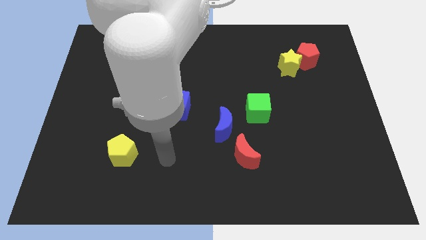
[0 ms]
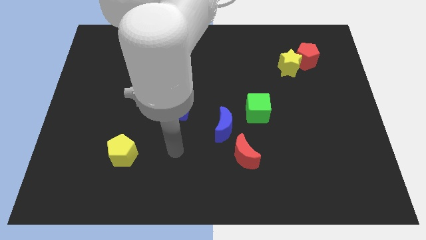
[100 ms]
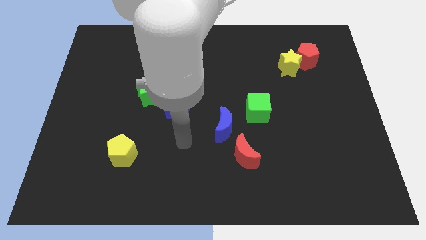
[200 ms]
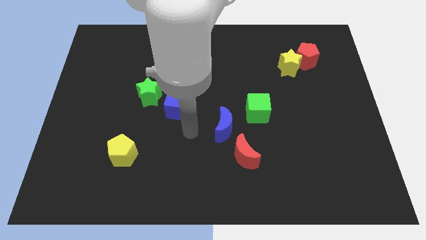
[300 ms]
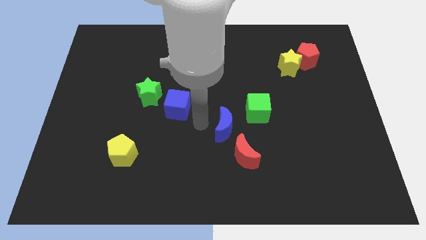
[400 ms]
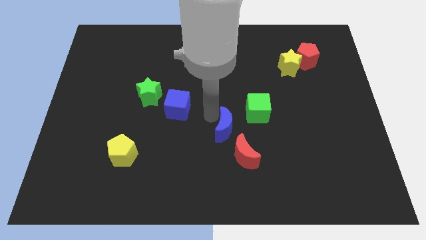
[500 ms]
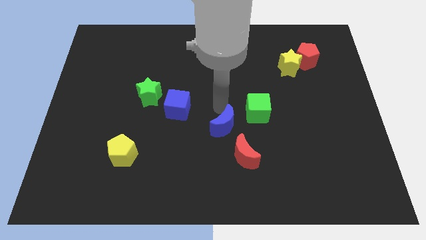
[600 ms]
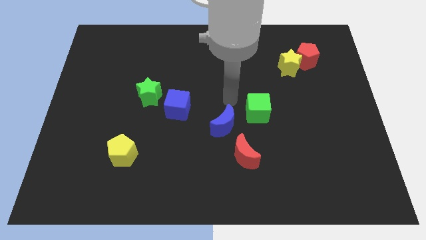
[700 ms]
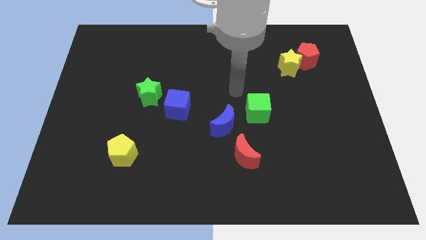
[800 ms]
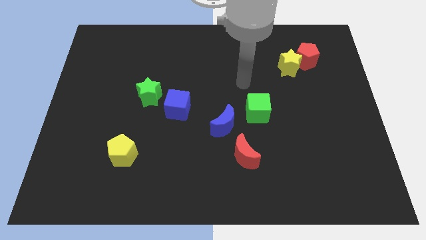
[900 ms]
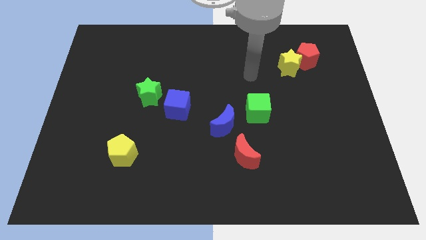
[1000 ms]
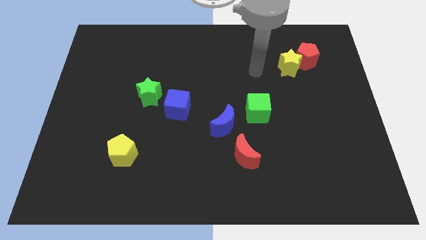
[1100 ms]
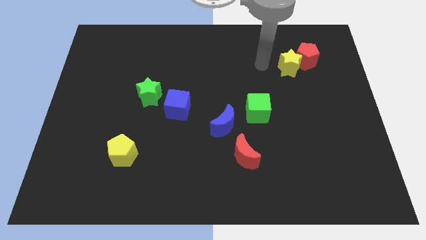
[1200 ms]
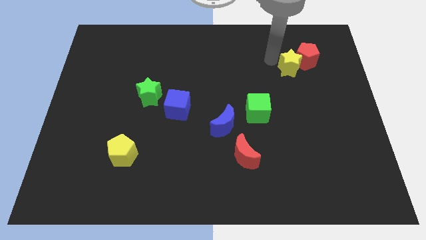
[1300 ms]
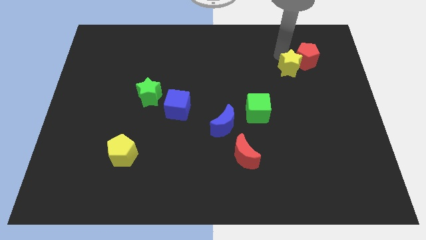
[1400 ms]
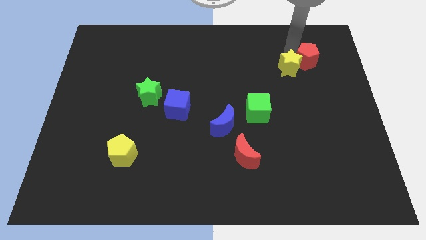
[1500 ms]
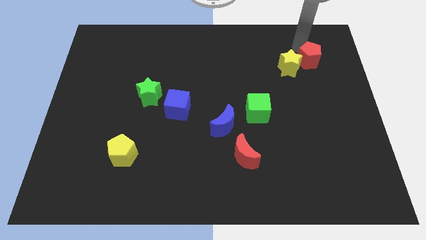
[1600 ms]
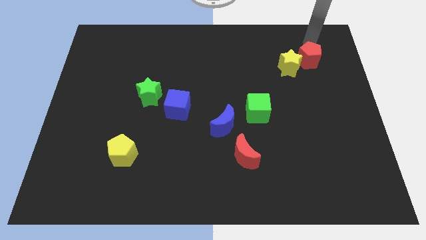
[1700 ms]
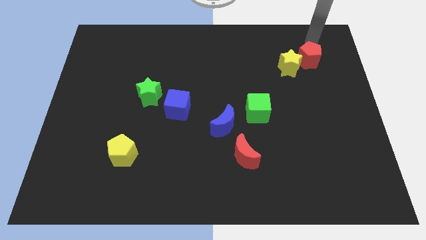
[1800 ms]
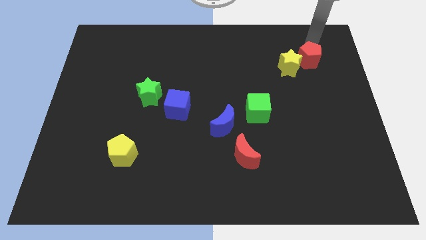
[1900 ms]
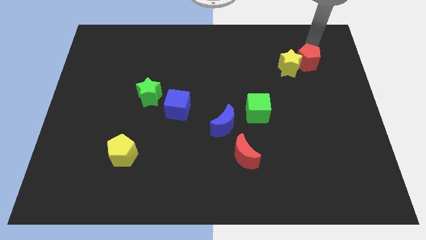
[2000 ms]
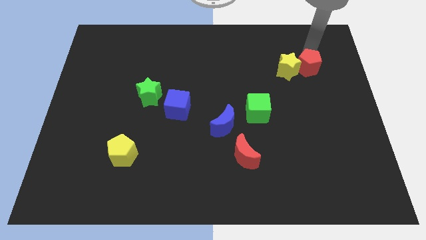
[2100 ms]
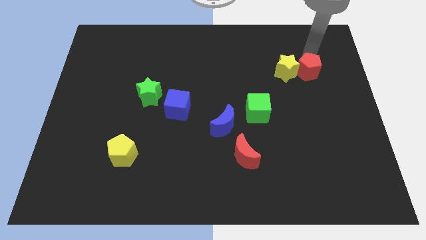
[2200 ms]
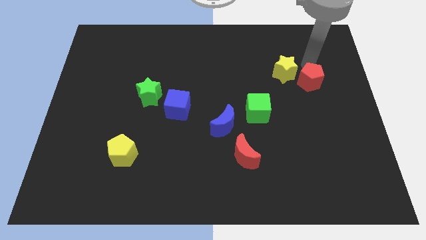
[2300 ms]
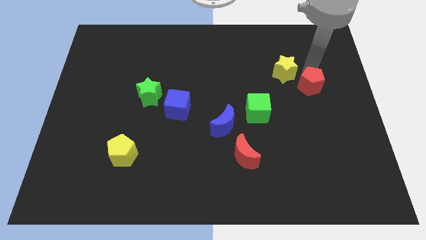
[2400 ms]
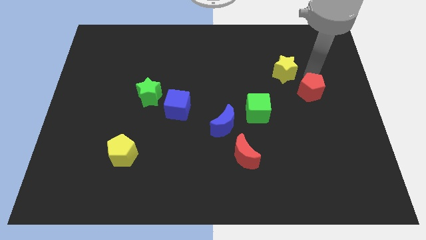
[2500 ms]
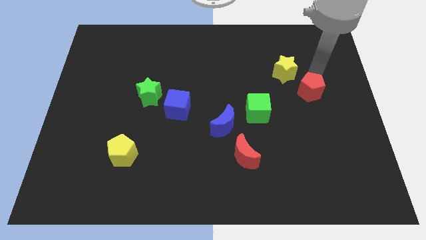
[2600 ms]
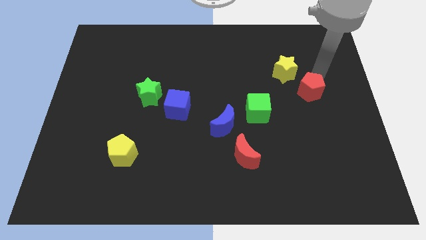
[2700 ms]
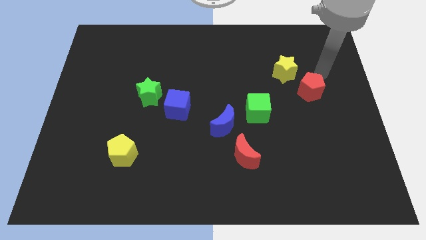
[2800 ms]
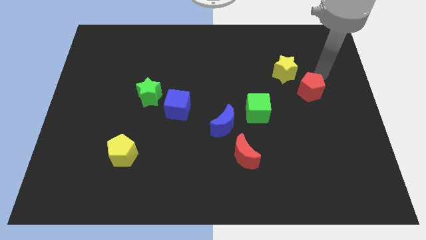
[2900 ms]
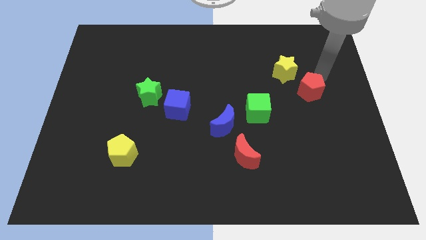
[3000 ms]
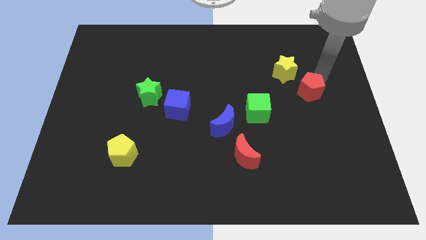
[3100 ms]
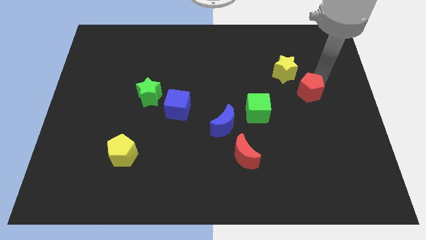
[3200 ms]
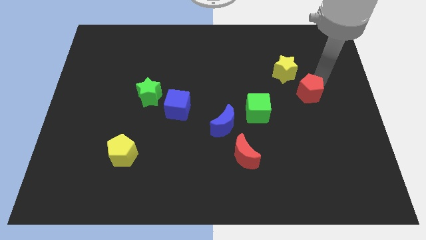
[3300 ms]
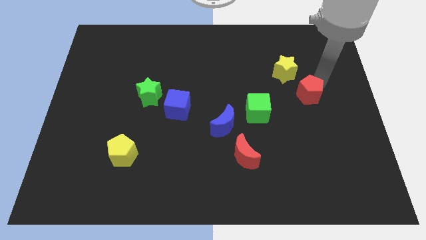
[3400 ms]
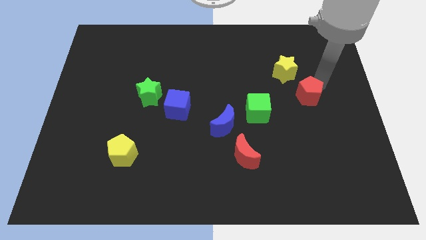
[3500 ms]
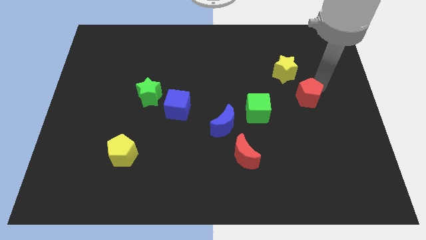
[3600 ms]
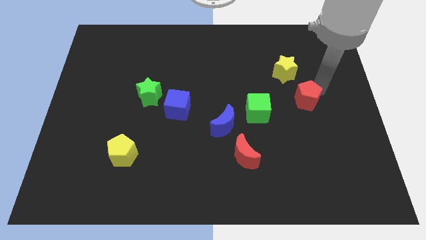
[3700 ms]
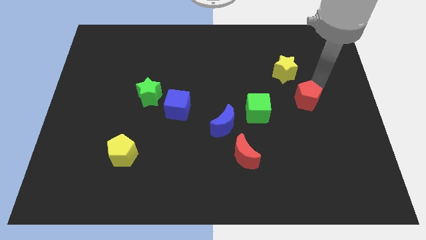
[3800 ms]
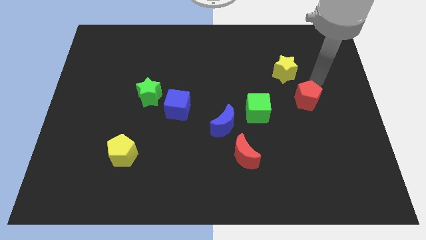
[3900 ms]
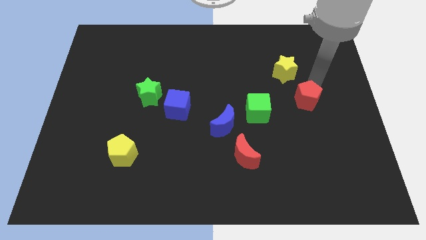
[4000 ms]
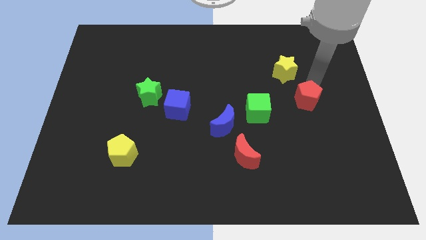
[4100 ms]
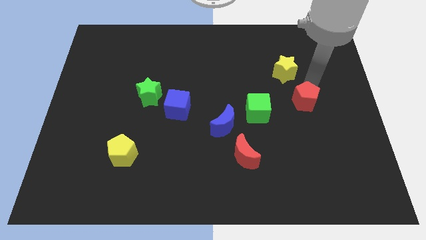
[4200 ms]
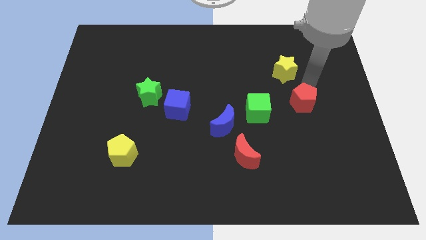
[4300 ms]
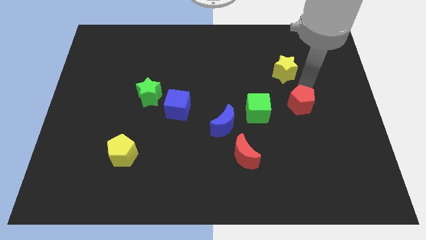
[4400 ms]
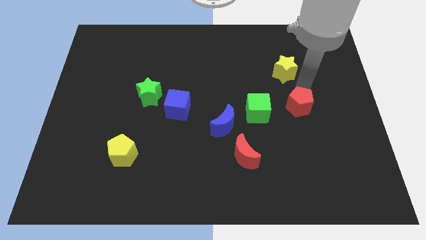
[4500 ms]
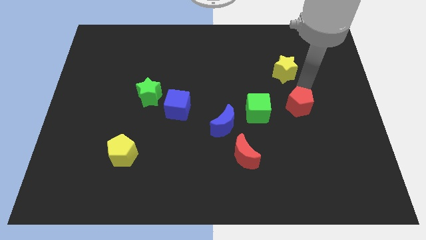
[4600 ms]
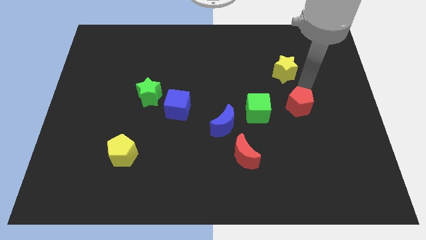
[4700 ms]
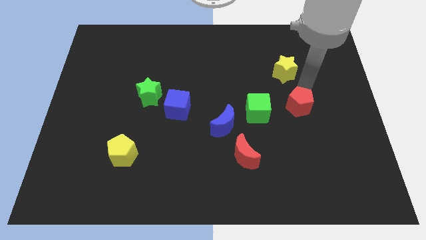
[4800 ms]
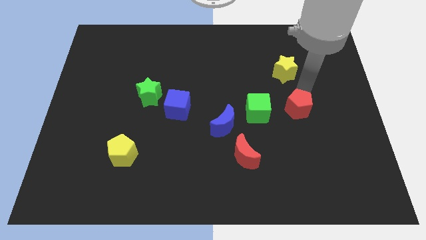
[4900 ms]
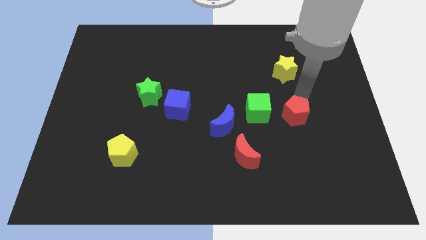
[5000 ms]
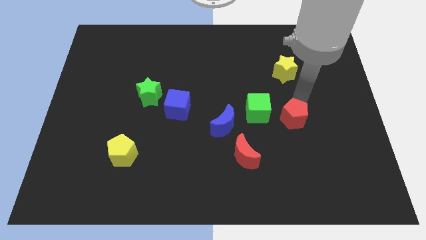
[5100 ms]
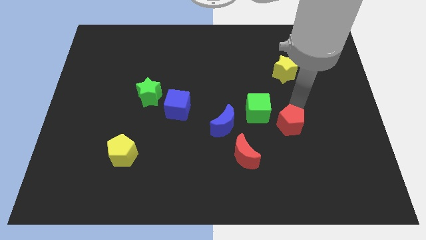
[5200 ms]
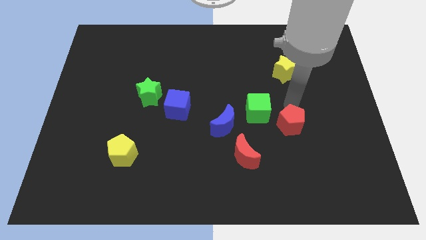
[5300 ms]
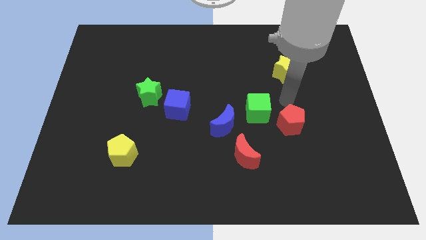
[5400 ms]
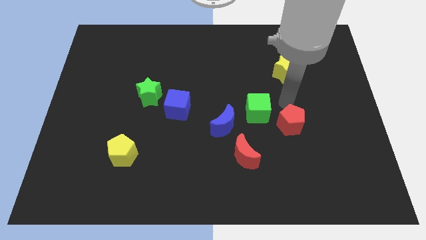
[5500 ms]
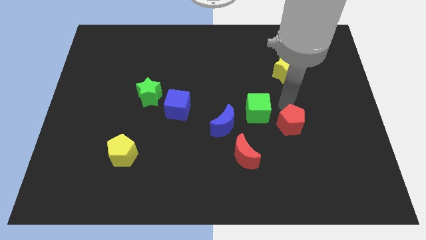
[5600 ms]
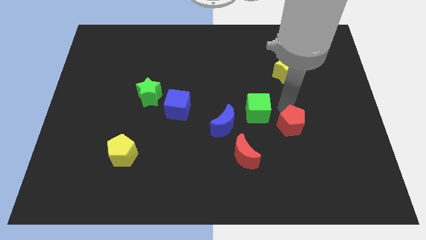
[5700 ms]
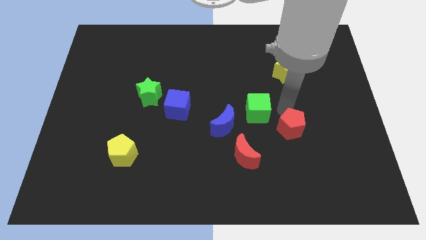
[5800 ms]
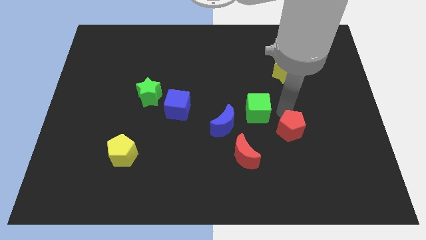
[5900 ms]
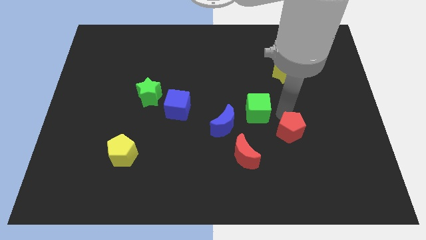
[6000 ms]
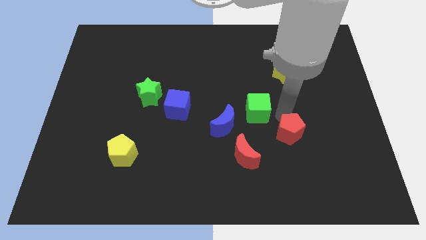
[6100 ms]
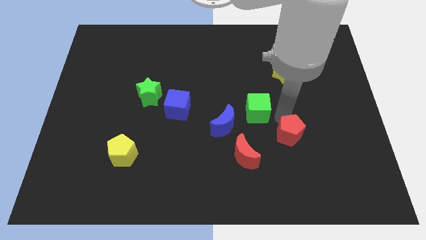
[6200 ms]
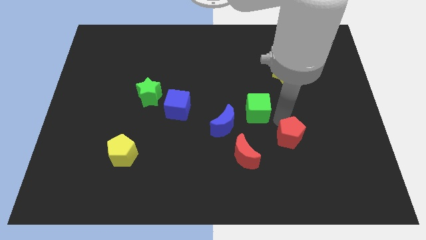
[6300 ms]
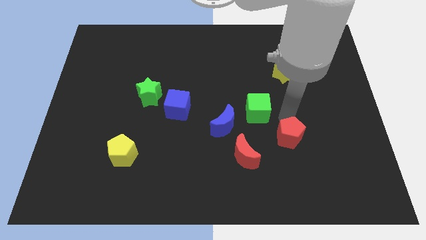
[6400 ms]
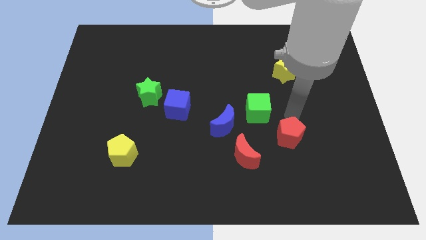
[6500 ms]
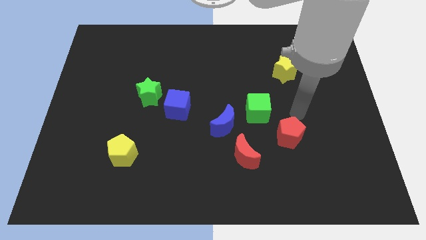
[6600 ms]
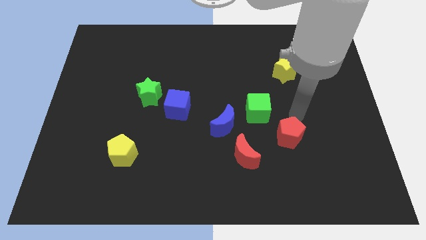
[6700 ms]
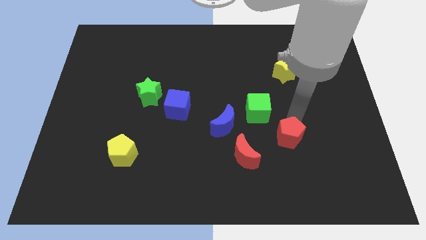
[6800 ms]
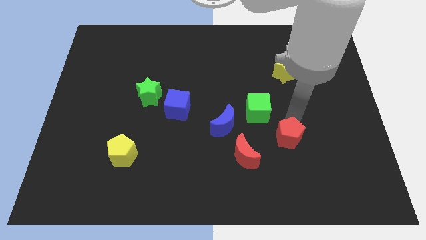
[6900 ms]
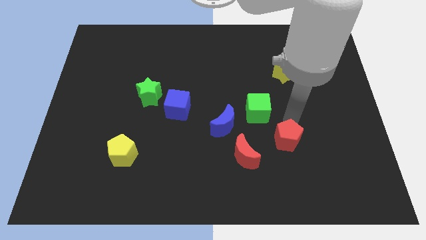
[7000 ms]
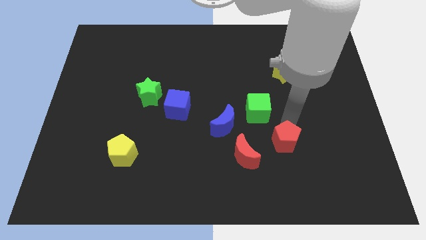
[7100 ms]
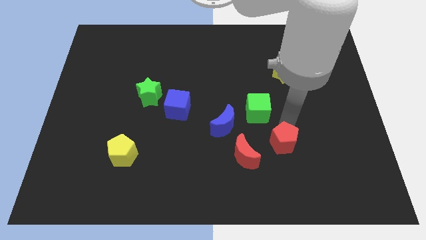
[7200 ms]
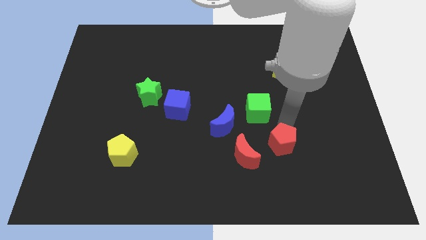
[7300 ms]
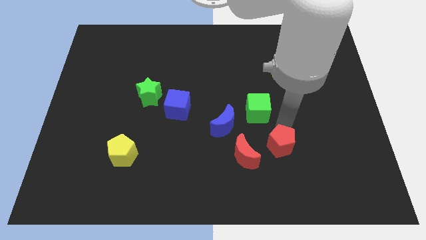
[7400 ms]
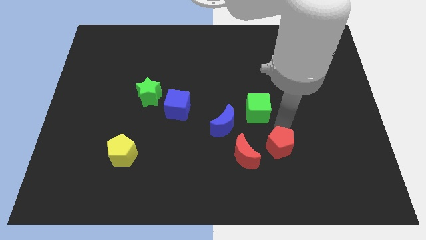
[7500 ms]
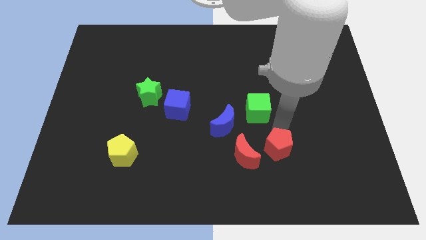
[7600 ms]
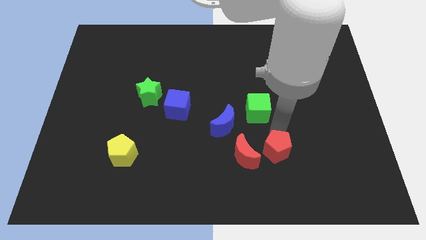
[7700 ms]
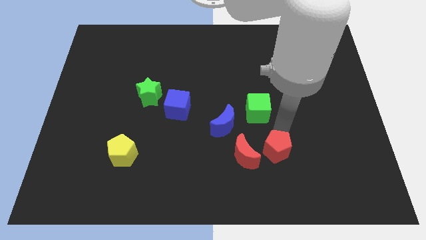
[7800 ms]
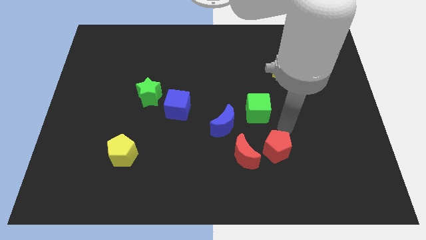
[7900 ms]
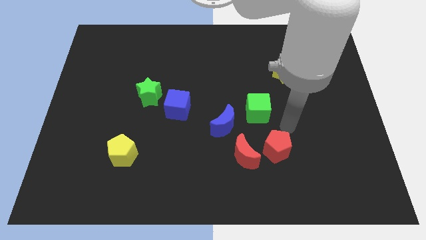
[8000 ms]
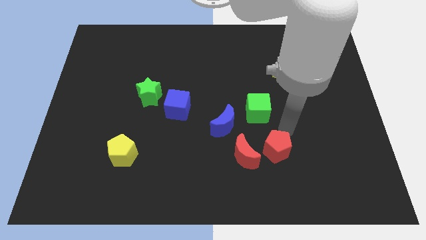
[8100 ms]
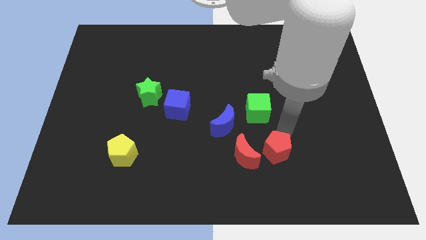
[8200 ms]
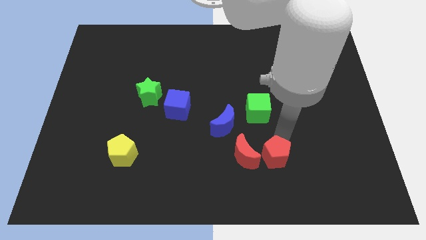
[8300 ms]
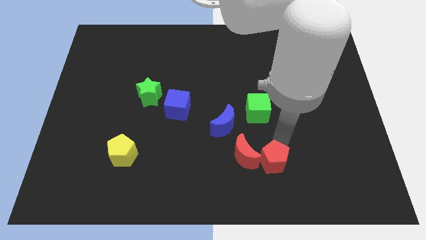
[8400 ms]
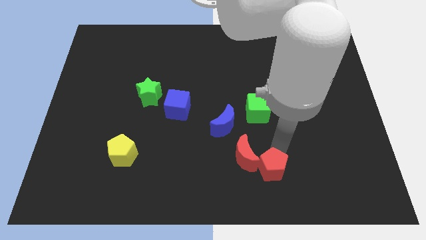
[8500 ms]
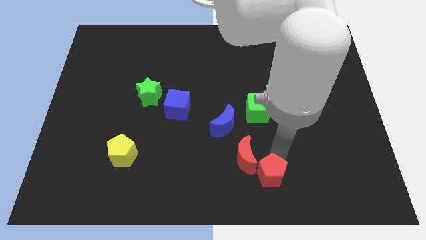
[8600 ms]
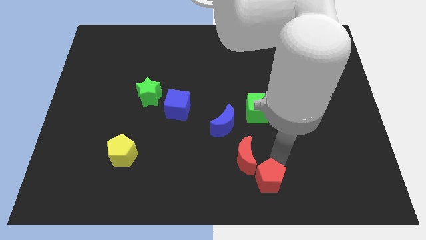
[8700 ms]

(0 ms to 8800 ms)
move the red pentagon to the bottom
